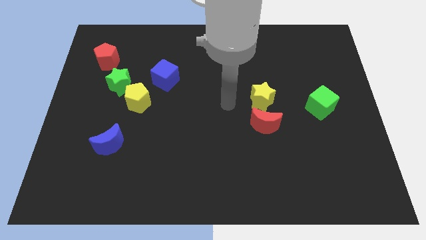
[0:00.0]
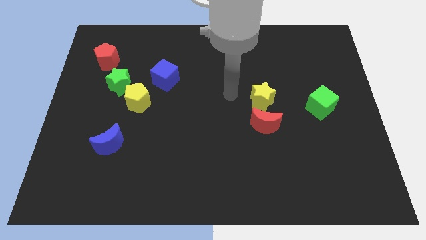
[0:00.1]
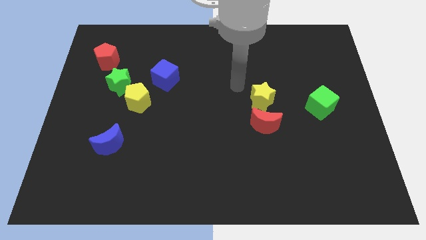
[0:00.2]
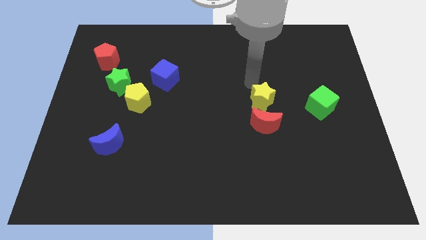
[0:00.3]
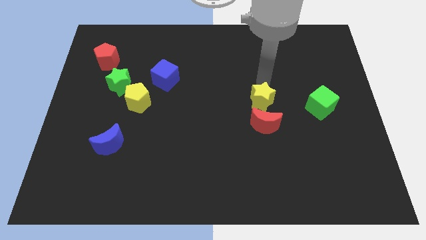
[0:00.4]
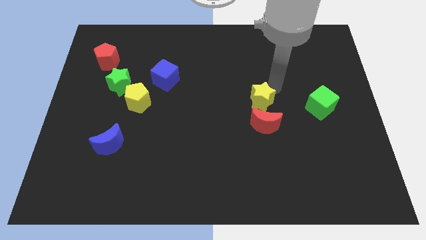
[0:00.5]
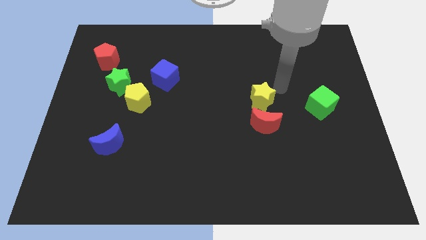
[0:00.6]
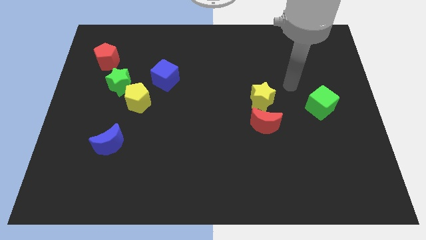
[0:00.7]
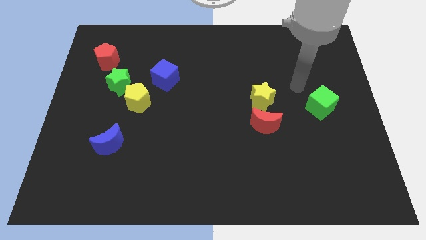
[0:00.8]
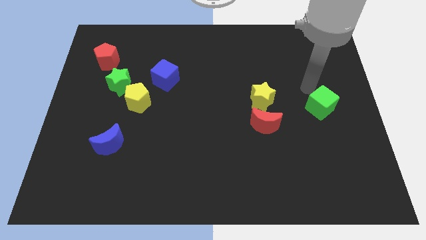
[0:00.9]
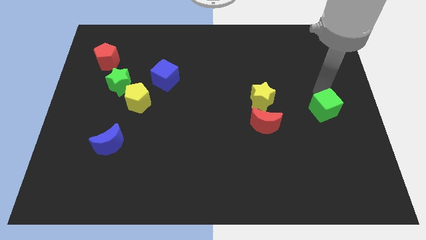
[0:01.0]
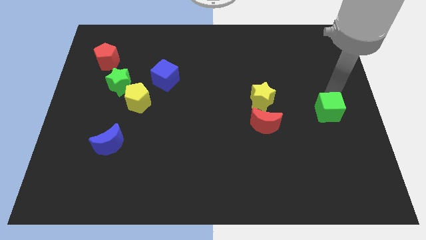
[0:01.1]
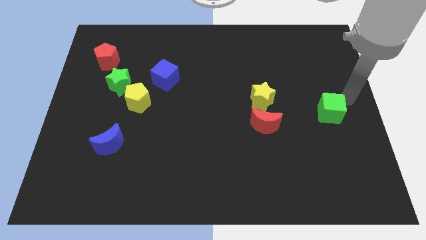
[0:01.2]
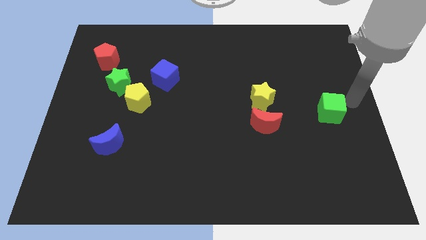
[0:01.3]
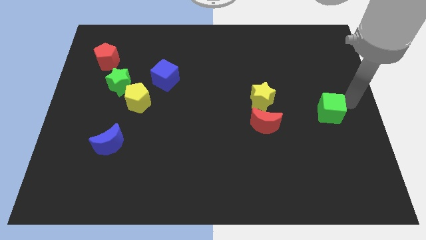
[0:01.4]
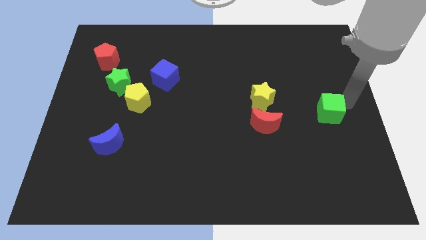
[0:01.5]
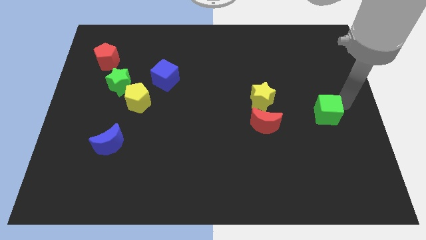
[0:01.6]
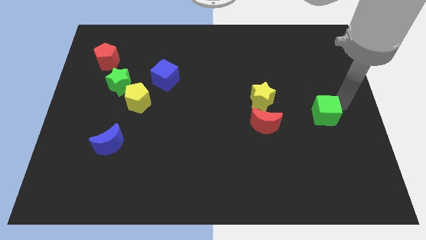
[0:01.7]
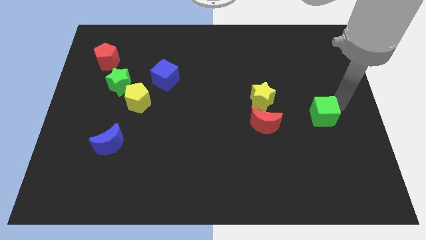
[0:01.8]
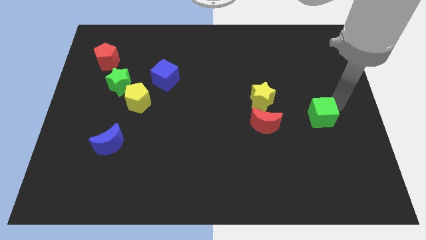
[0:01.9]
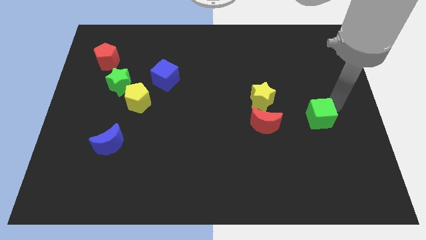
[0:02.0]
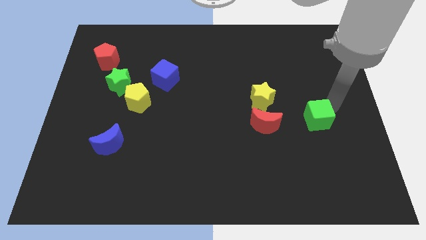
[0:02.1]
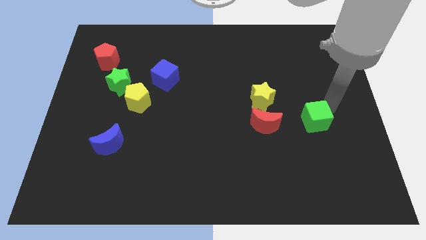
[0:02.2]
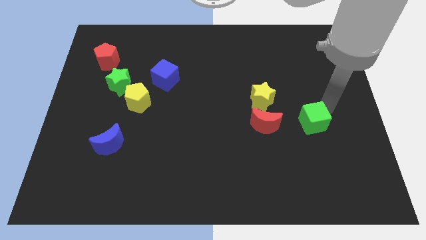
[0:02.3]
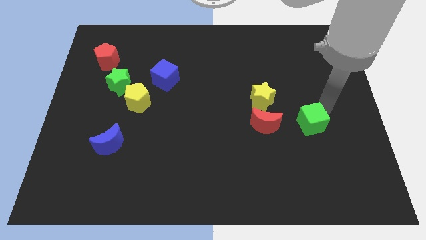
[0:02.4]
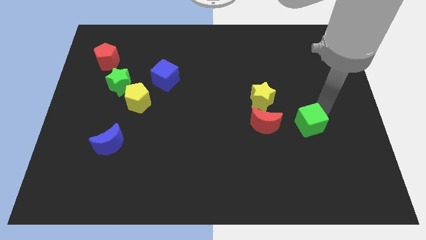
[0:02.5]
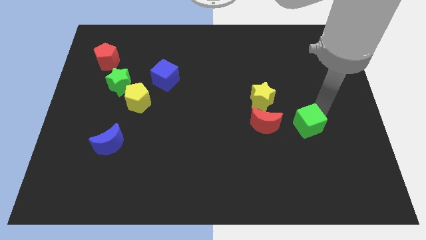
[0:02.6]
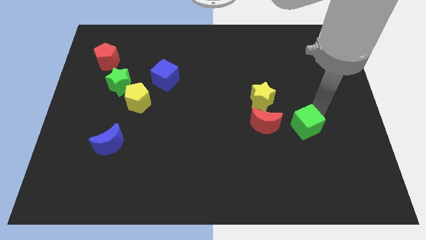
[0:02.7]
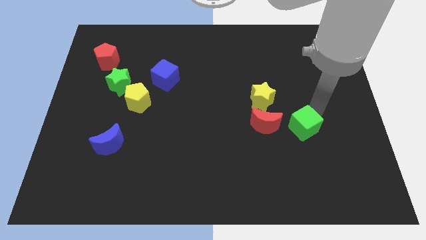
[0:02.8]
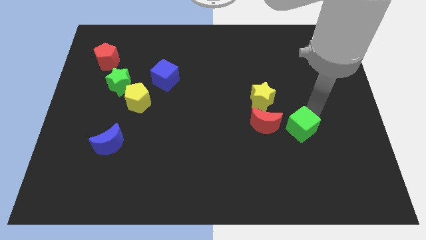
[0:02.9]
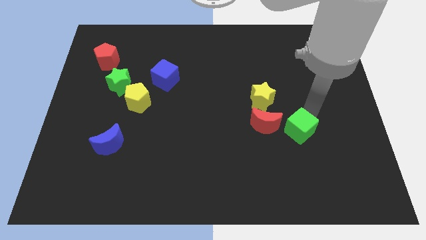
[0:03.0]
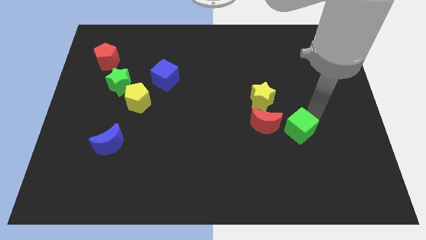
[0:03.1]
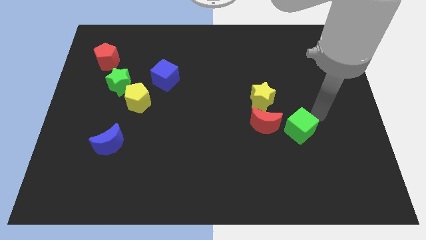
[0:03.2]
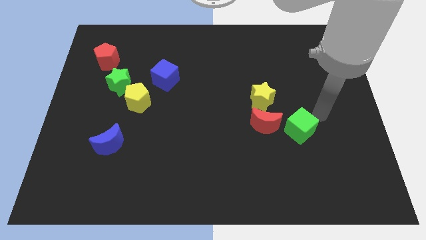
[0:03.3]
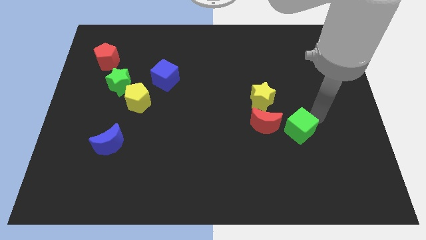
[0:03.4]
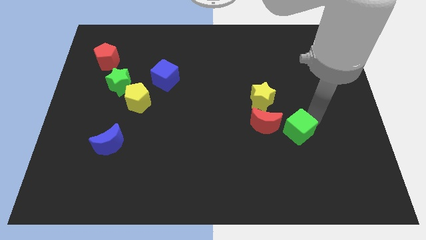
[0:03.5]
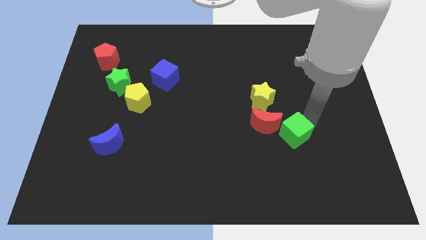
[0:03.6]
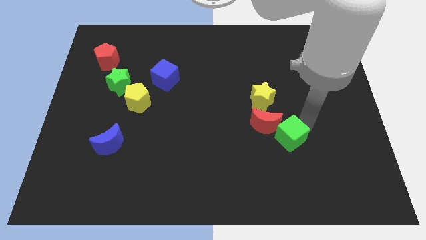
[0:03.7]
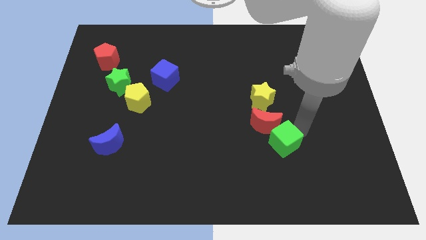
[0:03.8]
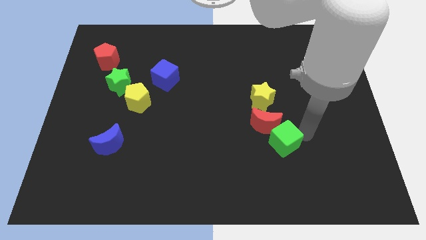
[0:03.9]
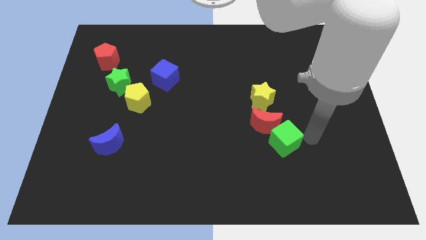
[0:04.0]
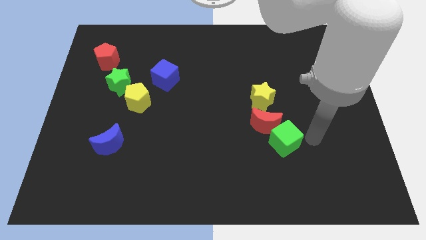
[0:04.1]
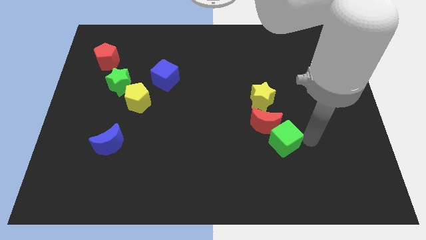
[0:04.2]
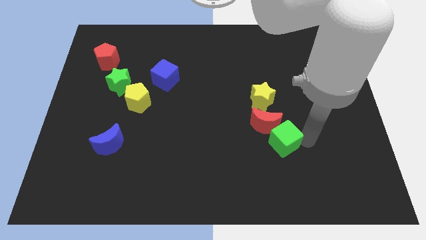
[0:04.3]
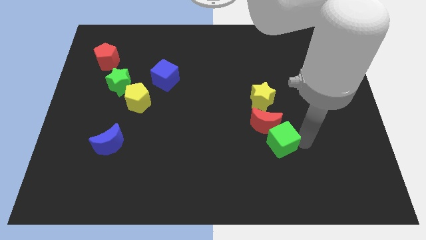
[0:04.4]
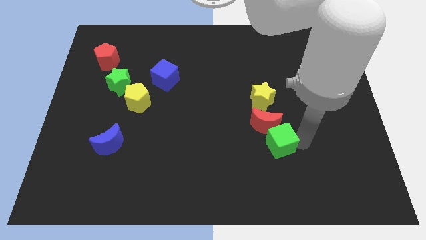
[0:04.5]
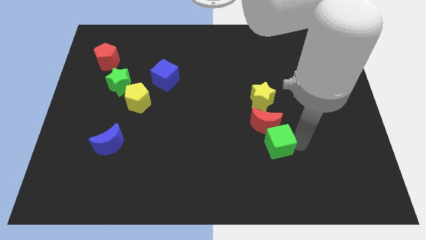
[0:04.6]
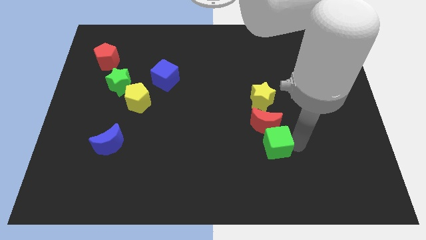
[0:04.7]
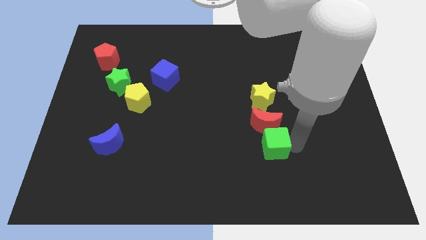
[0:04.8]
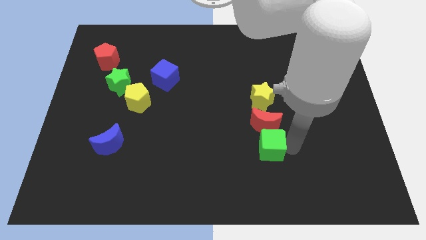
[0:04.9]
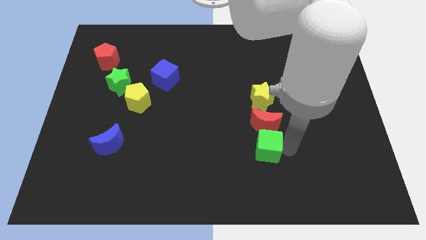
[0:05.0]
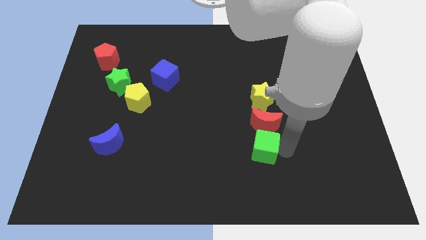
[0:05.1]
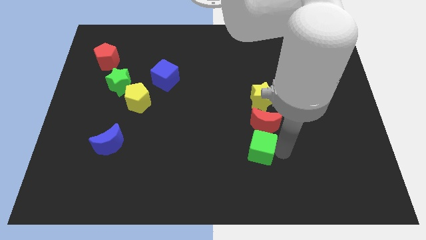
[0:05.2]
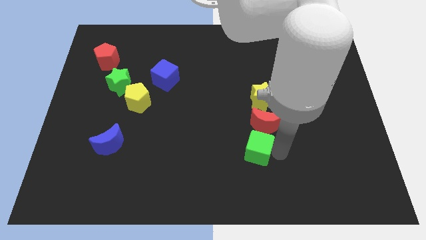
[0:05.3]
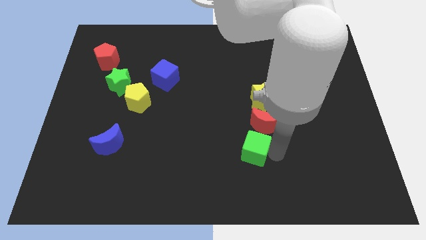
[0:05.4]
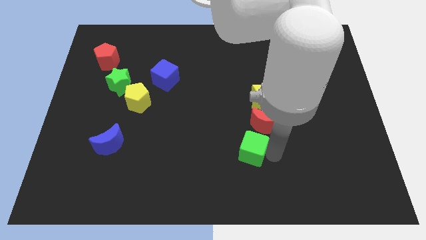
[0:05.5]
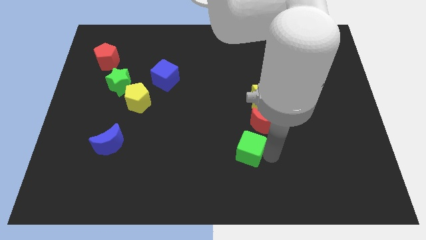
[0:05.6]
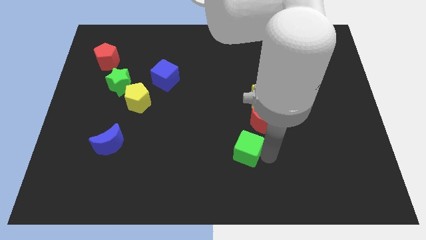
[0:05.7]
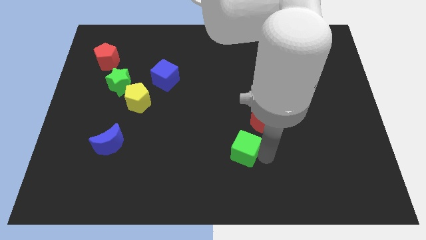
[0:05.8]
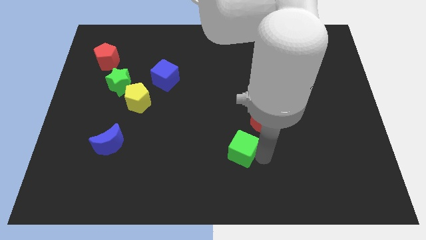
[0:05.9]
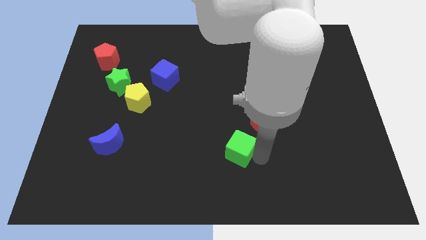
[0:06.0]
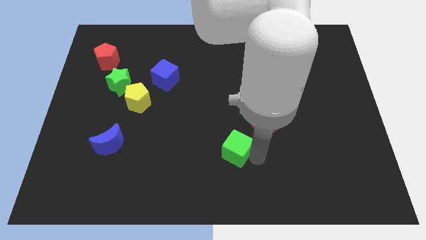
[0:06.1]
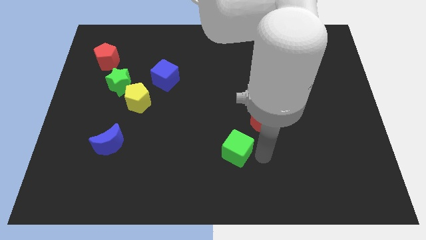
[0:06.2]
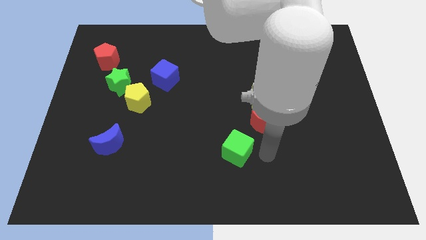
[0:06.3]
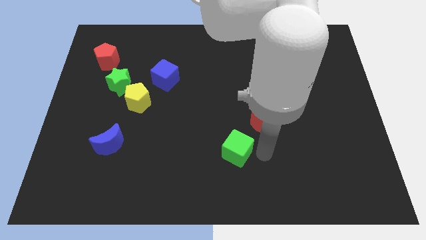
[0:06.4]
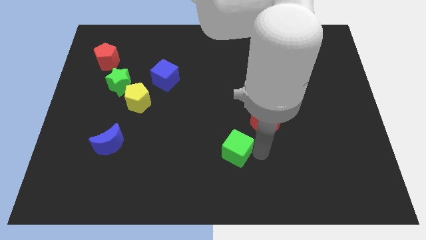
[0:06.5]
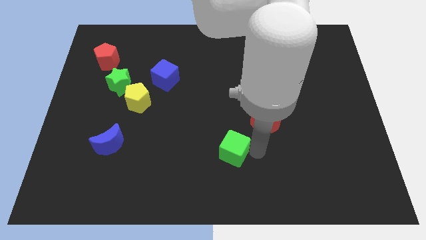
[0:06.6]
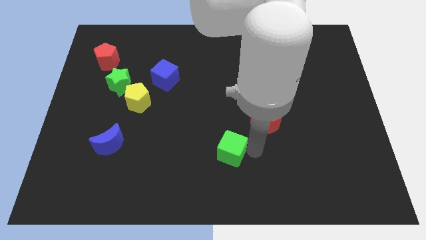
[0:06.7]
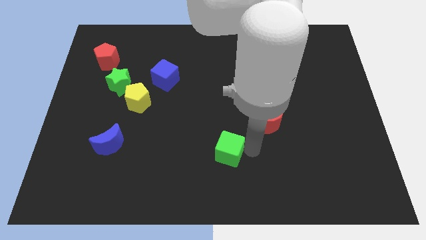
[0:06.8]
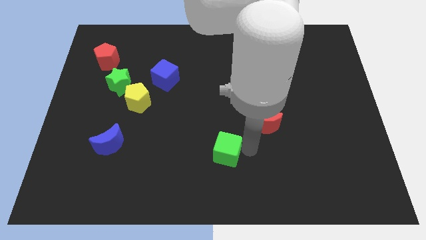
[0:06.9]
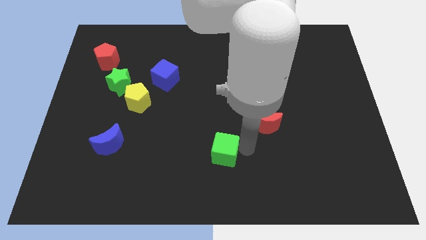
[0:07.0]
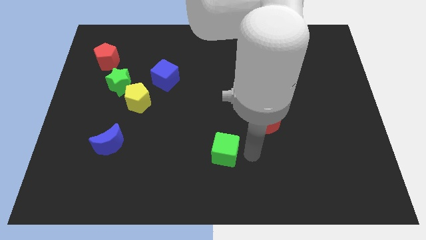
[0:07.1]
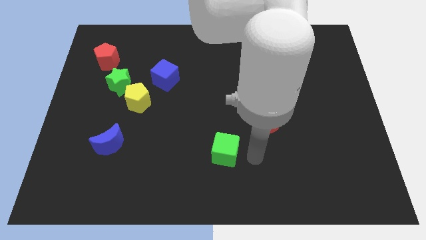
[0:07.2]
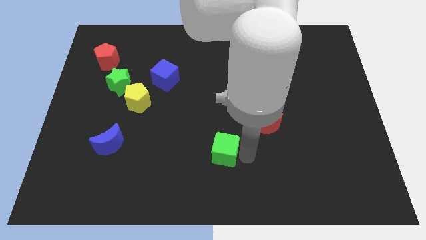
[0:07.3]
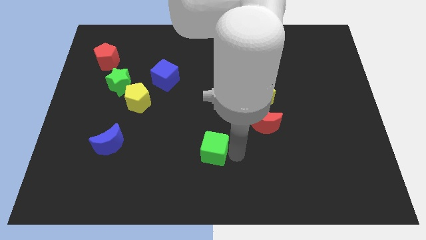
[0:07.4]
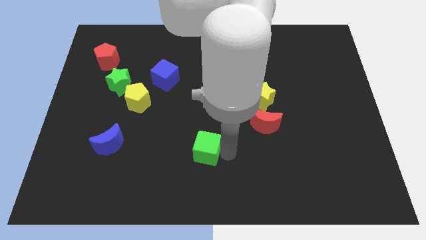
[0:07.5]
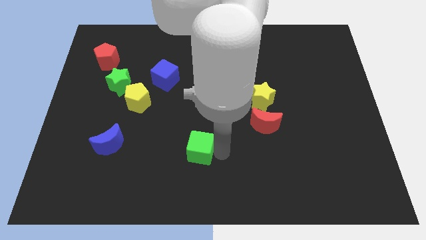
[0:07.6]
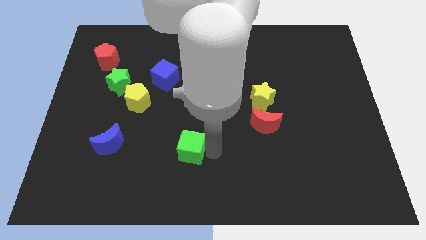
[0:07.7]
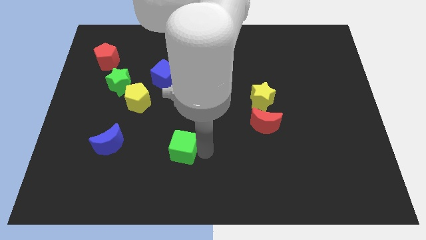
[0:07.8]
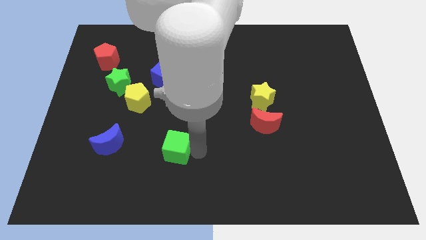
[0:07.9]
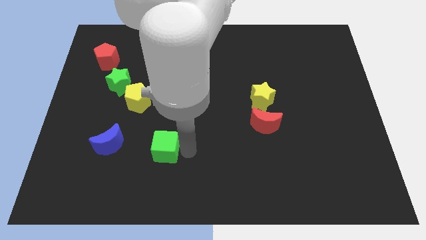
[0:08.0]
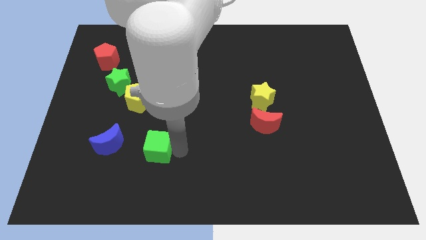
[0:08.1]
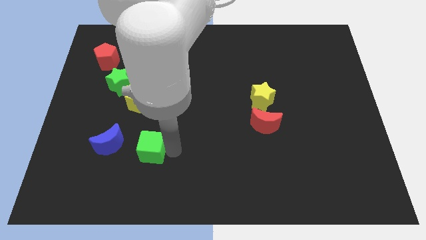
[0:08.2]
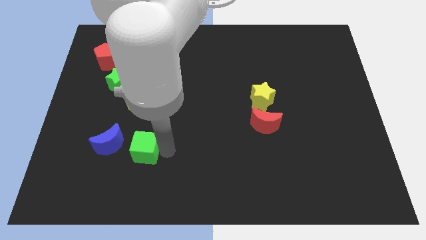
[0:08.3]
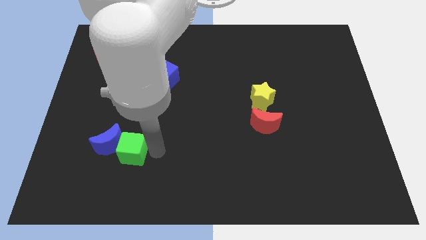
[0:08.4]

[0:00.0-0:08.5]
push the green cube next to the blue moon
